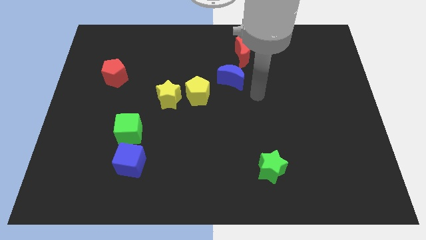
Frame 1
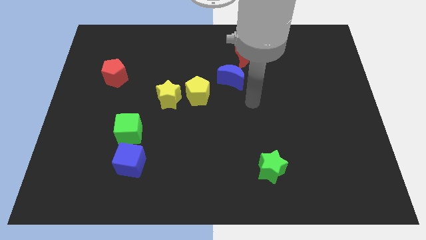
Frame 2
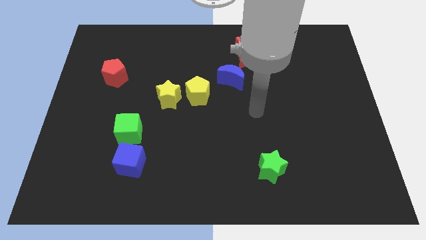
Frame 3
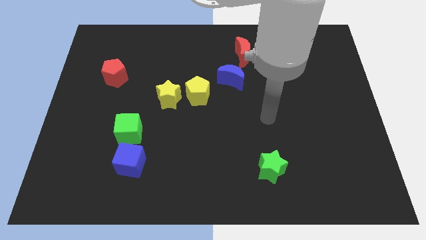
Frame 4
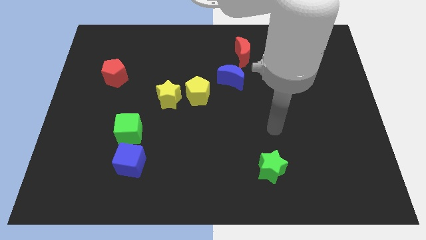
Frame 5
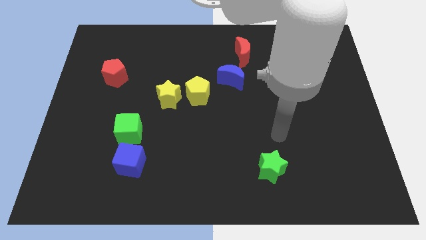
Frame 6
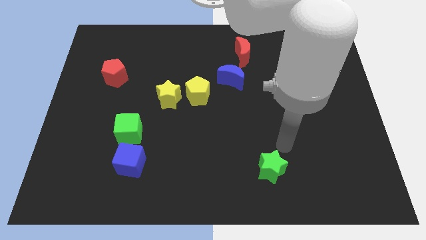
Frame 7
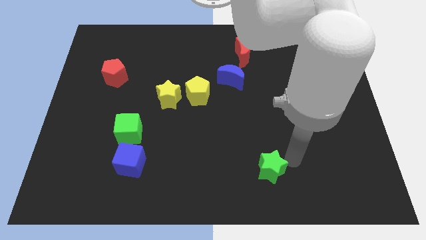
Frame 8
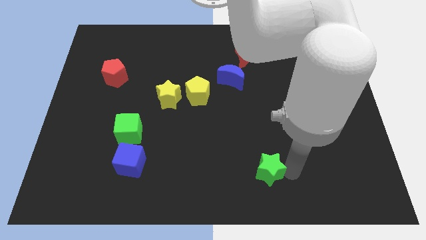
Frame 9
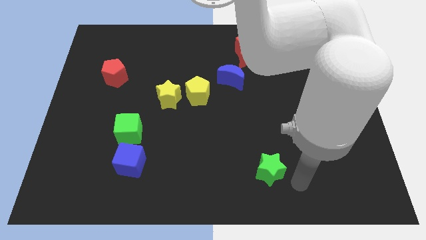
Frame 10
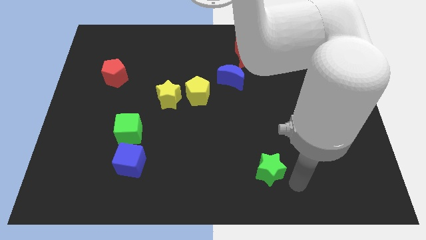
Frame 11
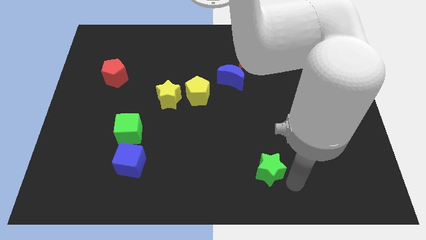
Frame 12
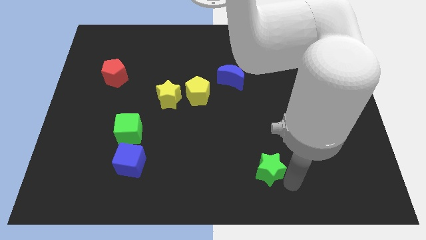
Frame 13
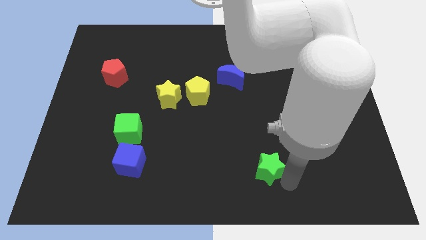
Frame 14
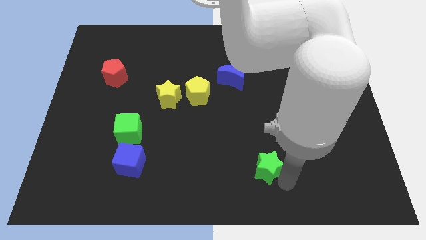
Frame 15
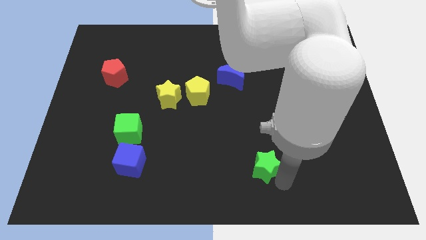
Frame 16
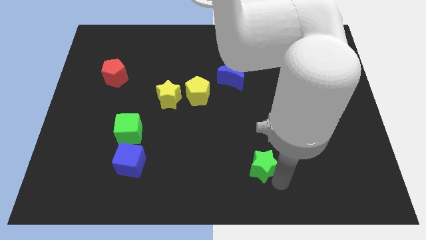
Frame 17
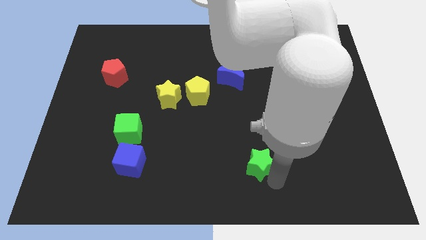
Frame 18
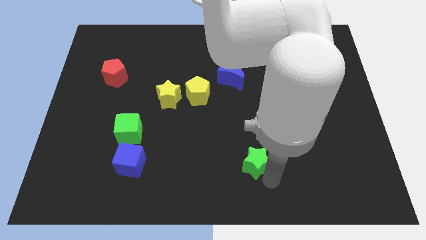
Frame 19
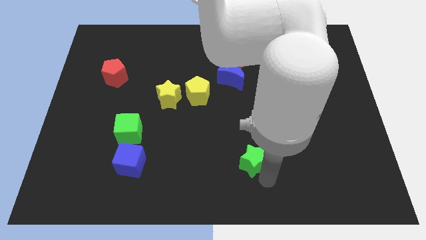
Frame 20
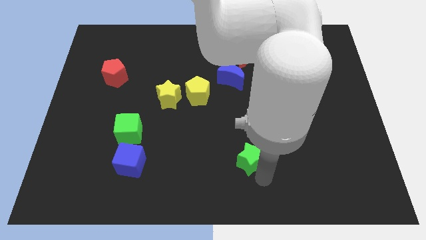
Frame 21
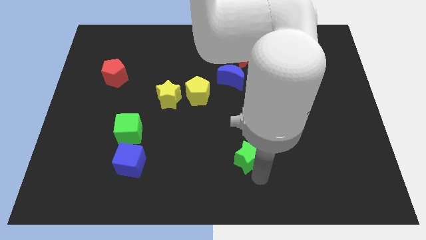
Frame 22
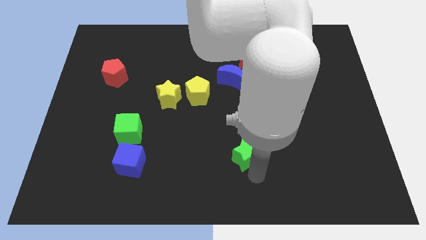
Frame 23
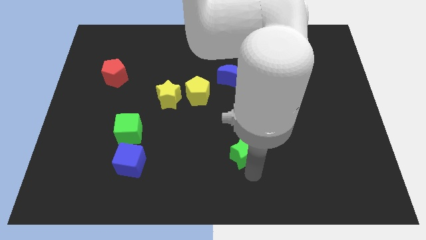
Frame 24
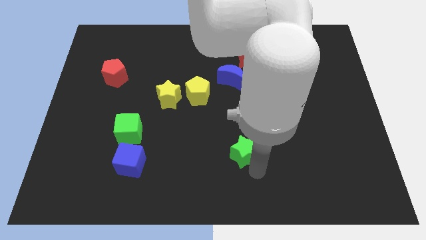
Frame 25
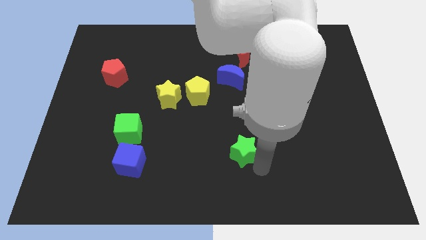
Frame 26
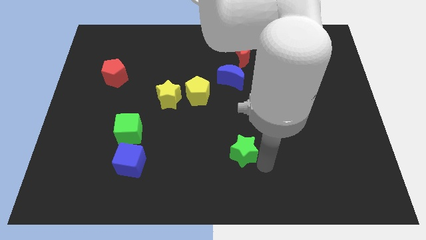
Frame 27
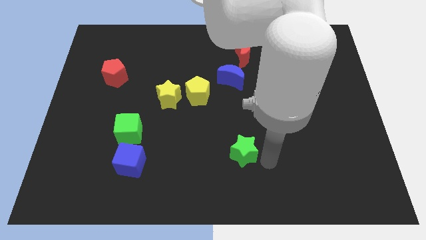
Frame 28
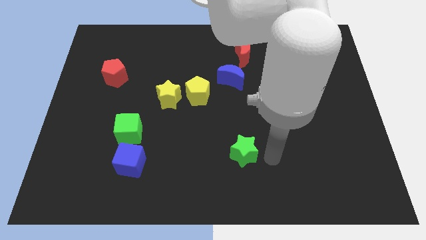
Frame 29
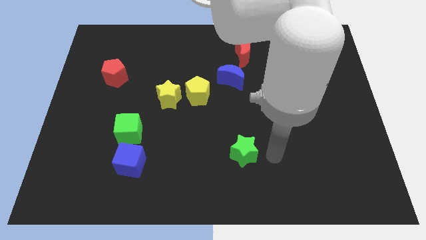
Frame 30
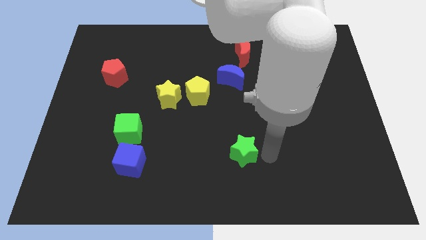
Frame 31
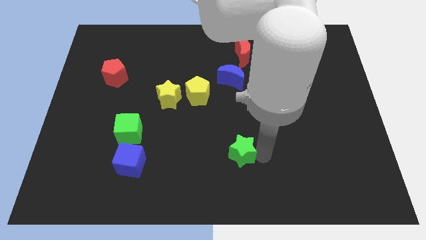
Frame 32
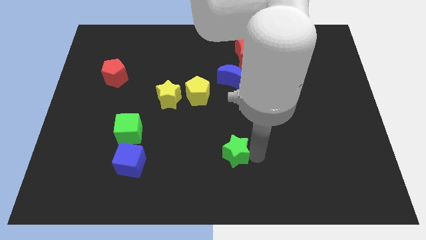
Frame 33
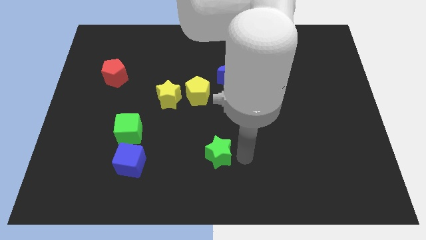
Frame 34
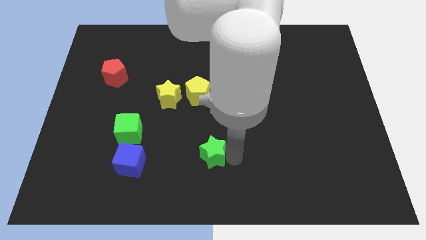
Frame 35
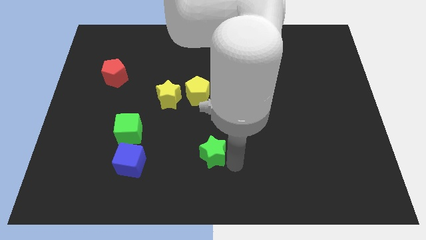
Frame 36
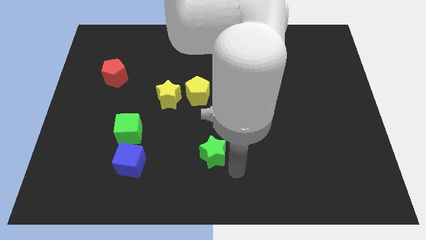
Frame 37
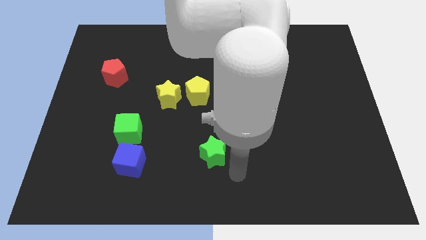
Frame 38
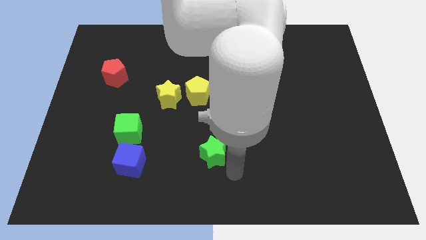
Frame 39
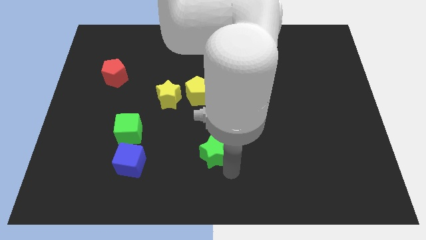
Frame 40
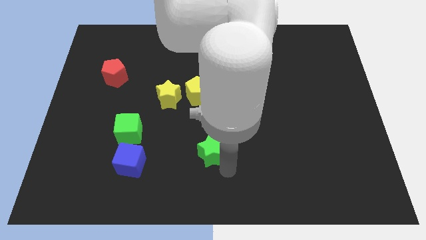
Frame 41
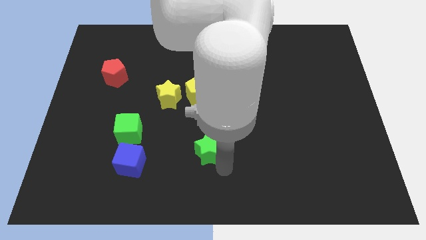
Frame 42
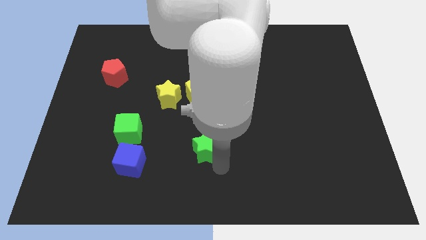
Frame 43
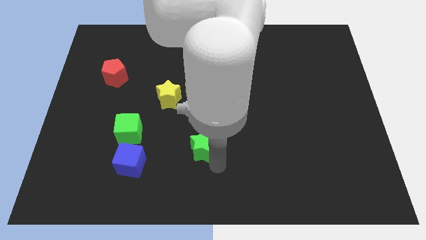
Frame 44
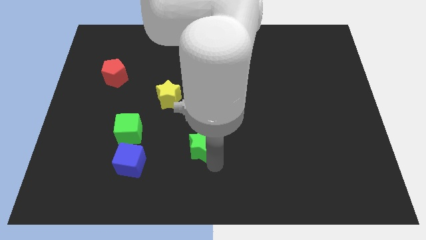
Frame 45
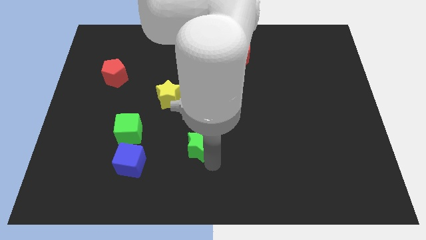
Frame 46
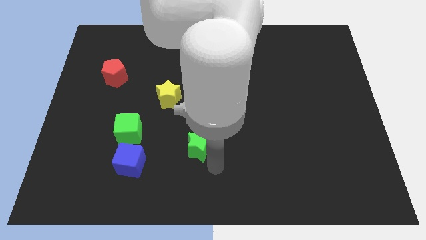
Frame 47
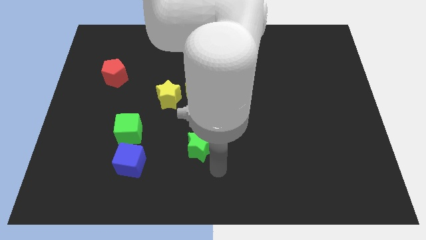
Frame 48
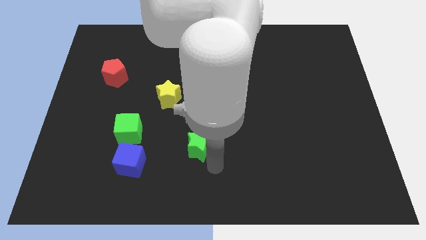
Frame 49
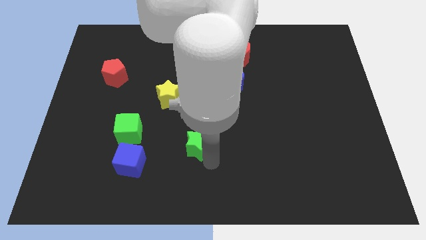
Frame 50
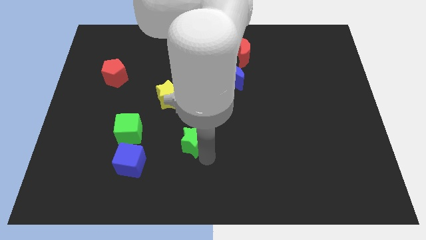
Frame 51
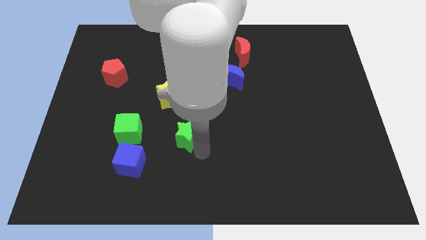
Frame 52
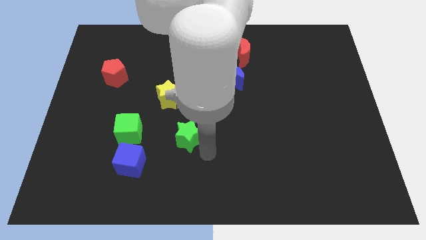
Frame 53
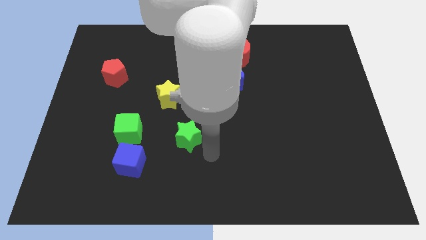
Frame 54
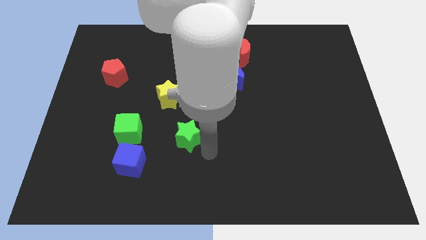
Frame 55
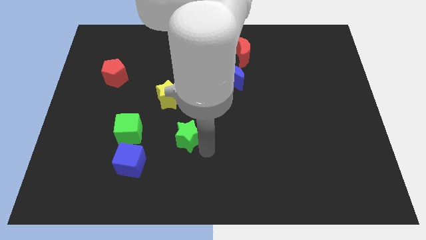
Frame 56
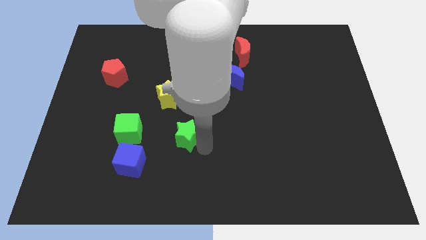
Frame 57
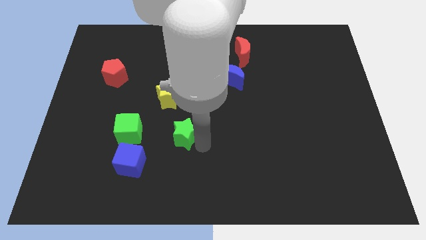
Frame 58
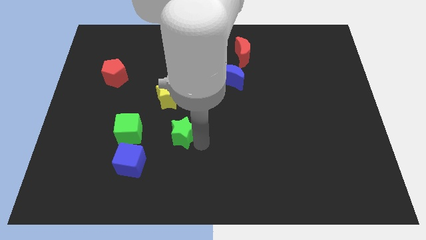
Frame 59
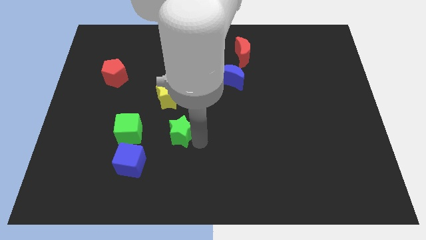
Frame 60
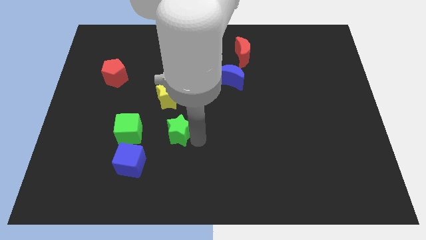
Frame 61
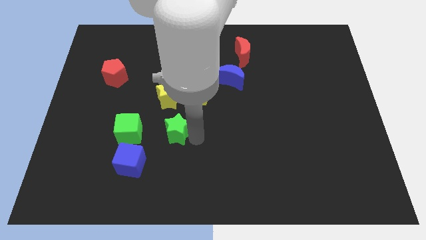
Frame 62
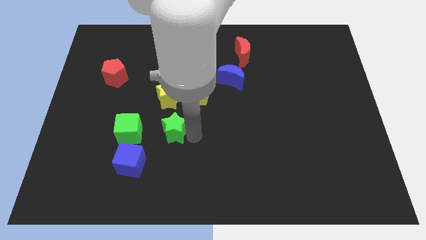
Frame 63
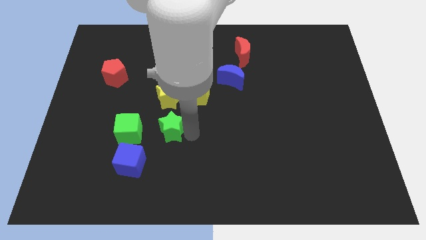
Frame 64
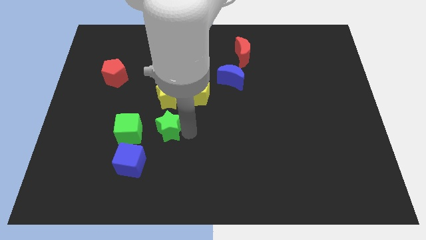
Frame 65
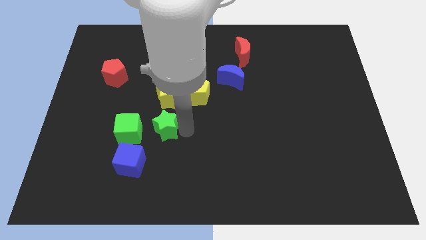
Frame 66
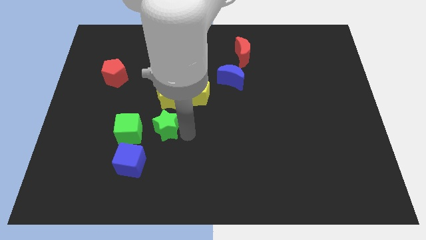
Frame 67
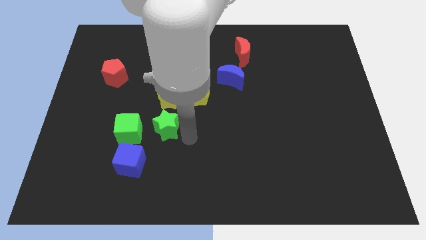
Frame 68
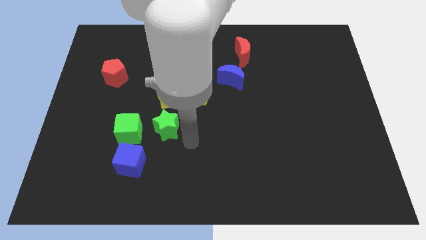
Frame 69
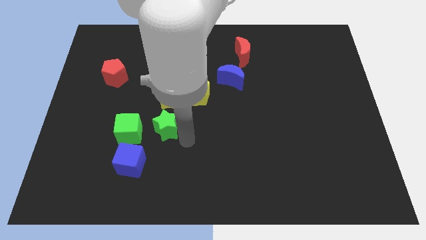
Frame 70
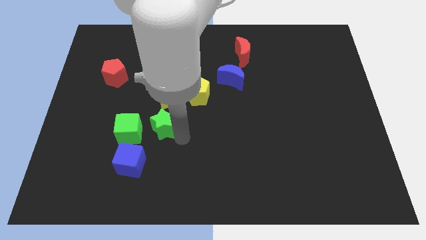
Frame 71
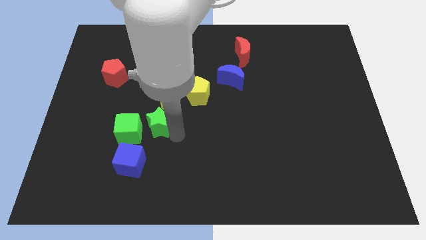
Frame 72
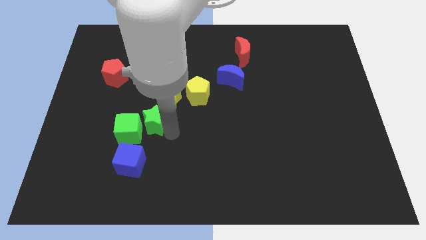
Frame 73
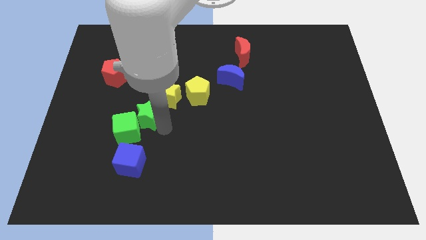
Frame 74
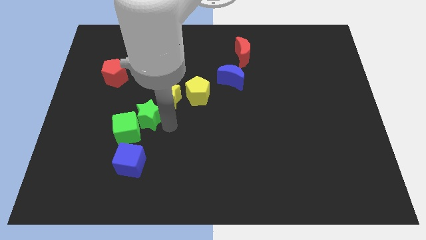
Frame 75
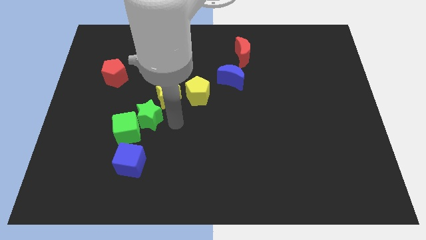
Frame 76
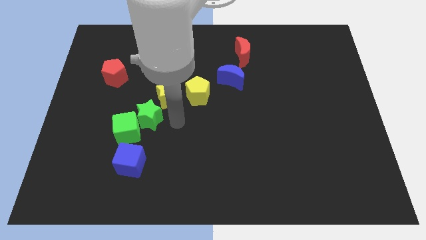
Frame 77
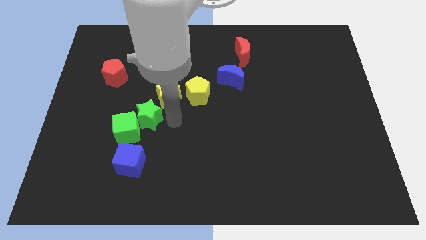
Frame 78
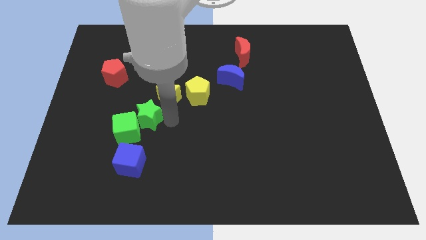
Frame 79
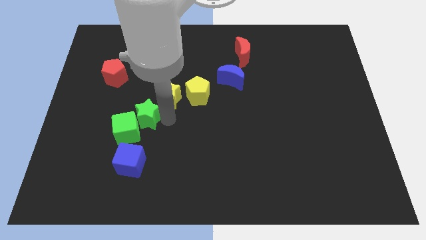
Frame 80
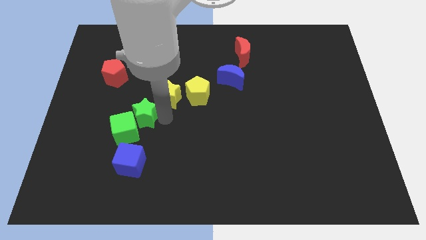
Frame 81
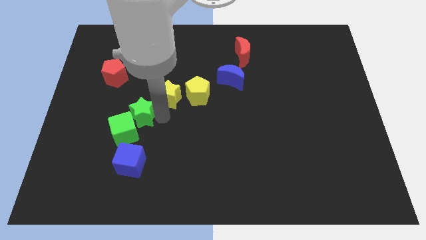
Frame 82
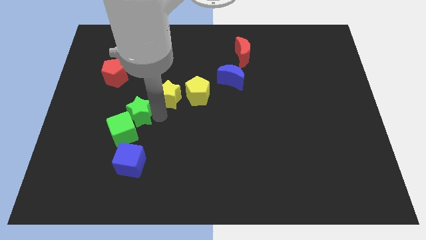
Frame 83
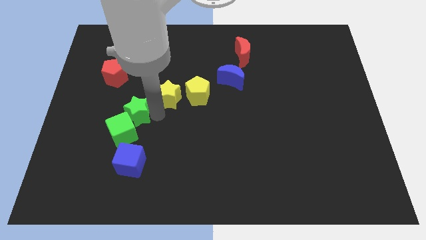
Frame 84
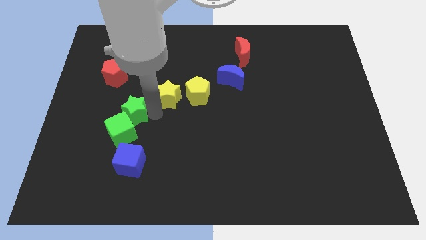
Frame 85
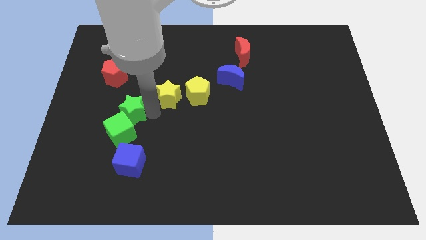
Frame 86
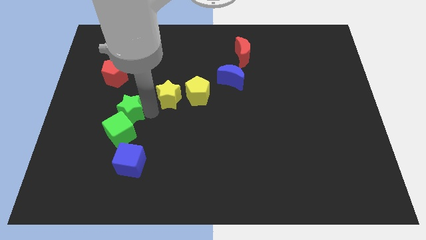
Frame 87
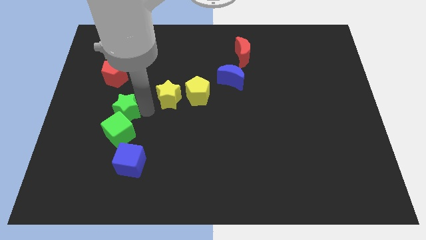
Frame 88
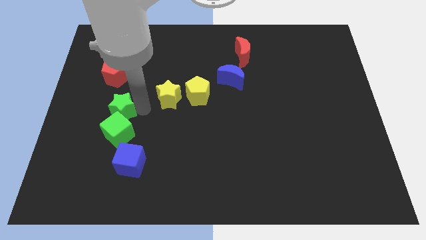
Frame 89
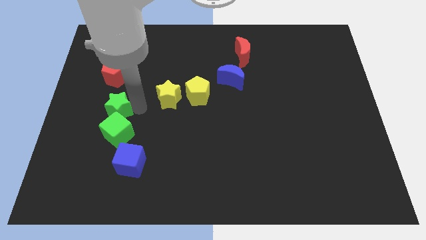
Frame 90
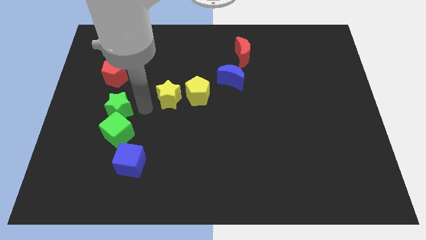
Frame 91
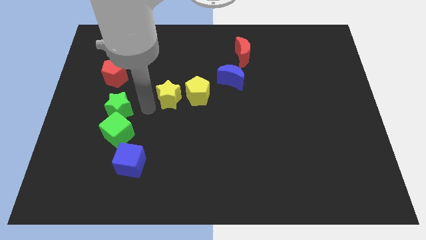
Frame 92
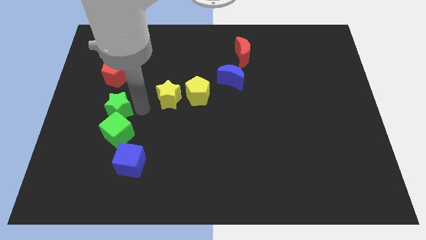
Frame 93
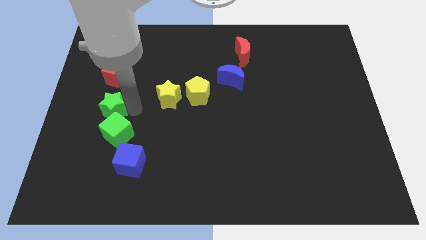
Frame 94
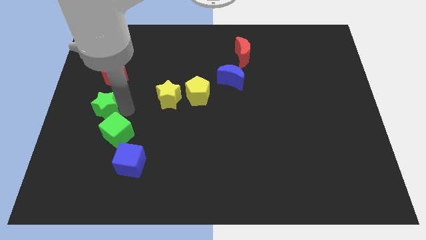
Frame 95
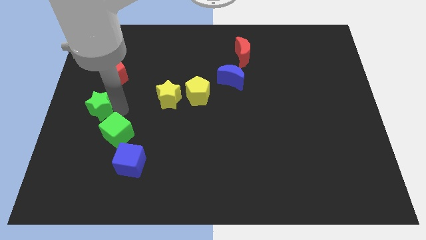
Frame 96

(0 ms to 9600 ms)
push the green star to the left side of the board
